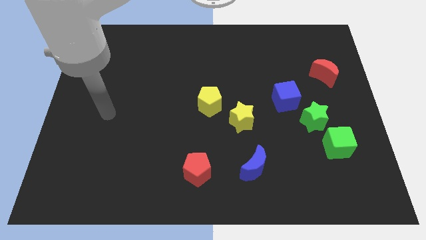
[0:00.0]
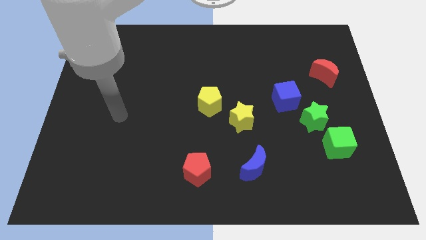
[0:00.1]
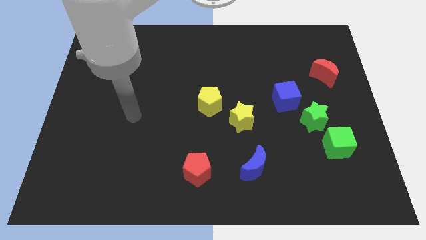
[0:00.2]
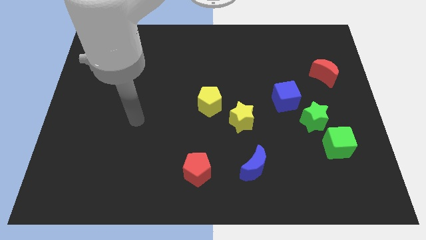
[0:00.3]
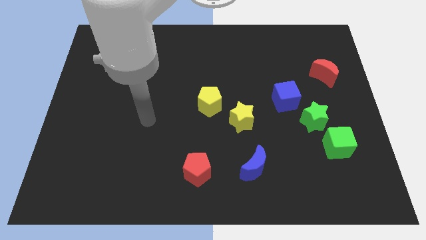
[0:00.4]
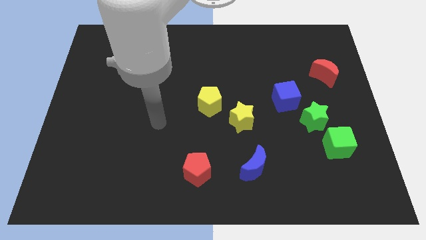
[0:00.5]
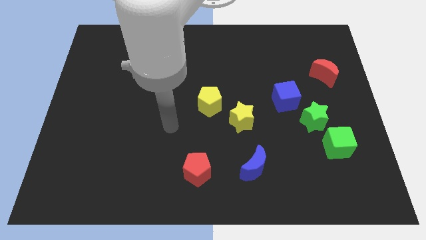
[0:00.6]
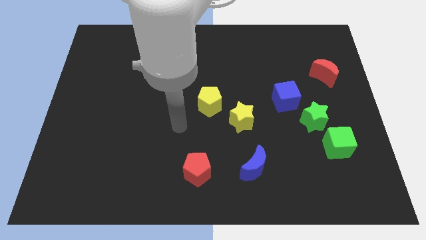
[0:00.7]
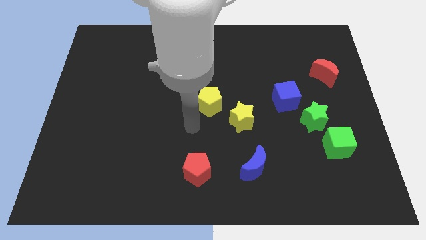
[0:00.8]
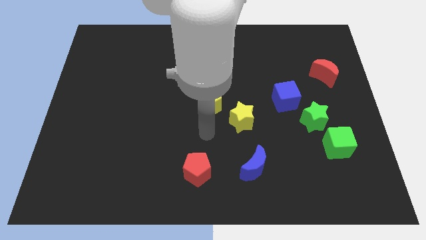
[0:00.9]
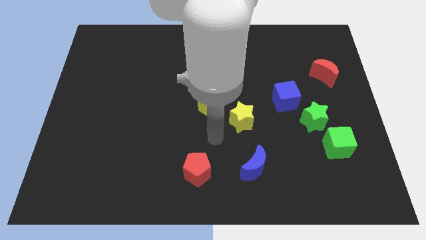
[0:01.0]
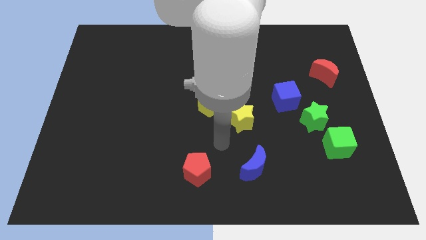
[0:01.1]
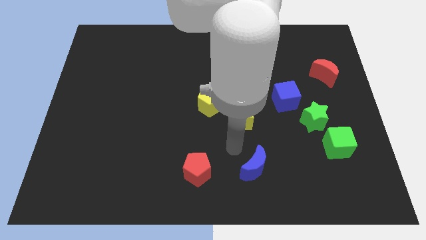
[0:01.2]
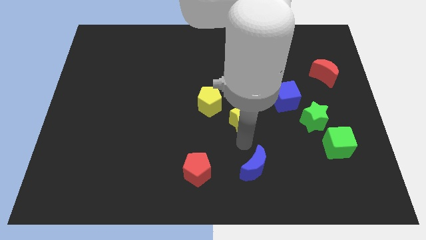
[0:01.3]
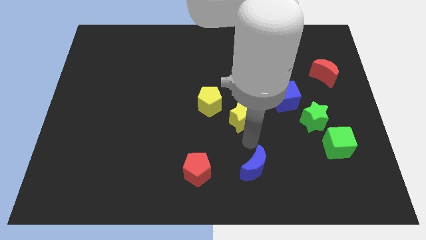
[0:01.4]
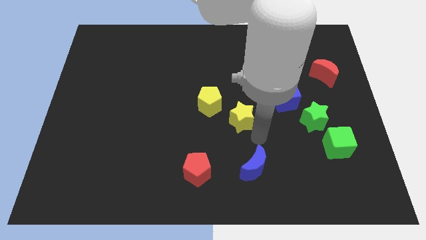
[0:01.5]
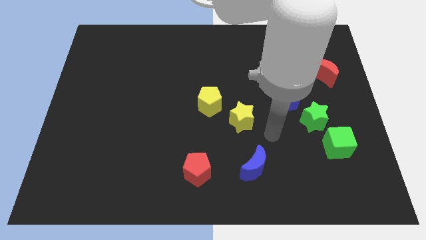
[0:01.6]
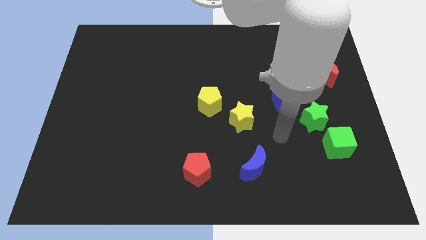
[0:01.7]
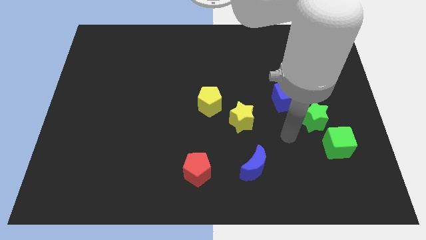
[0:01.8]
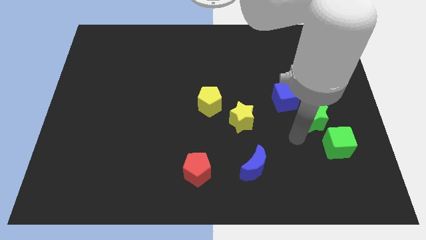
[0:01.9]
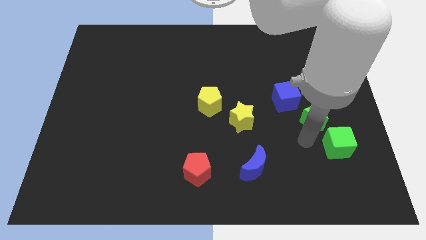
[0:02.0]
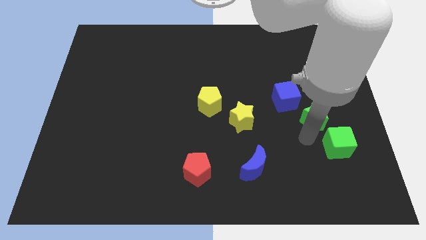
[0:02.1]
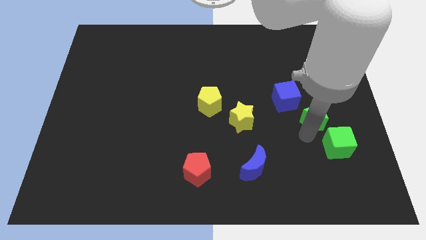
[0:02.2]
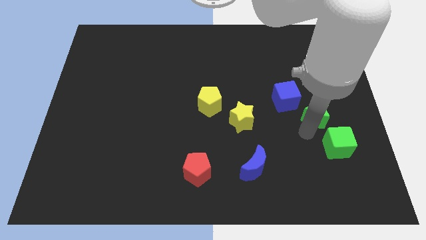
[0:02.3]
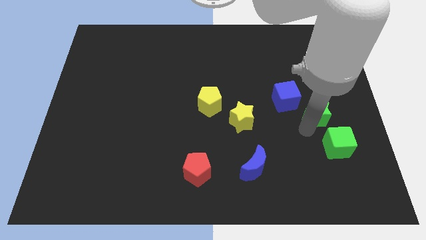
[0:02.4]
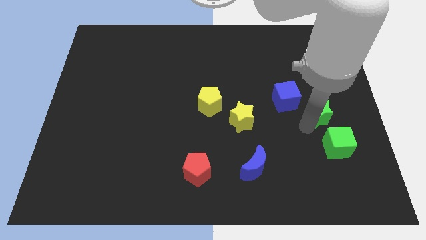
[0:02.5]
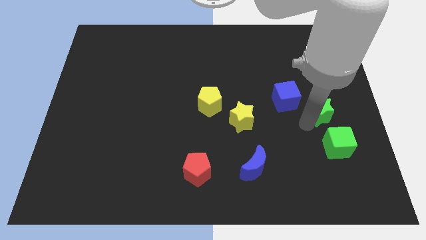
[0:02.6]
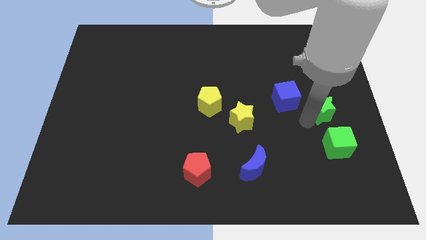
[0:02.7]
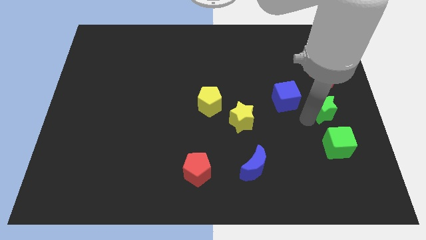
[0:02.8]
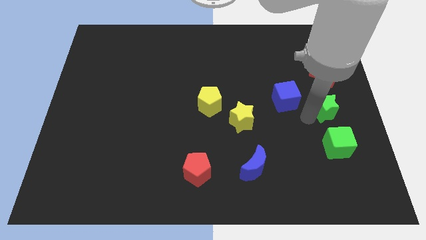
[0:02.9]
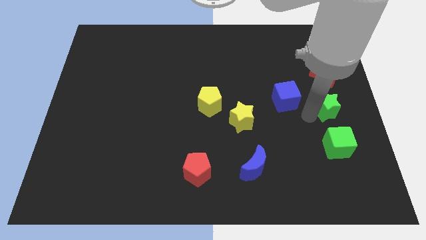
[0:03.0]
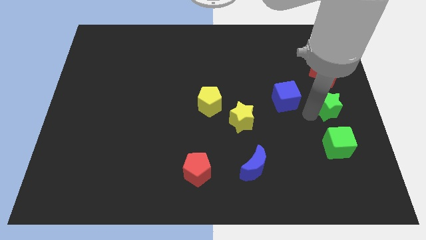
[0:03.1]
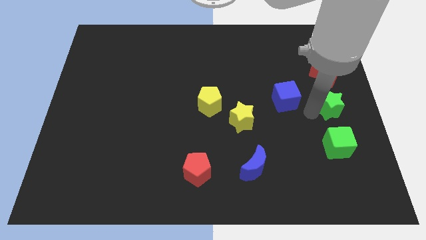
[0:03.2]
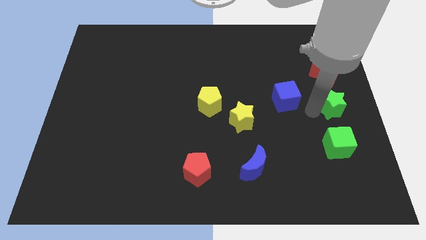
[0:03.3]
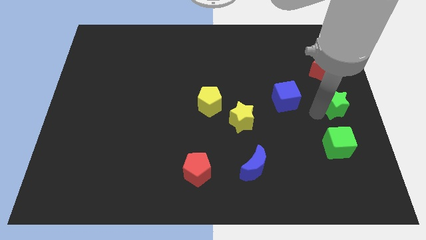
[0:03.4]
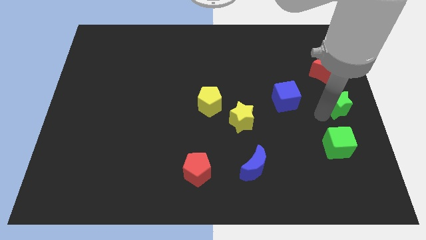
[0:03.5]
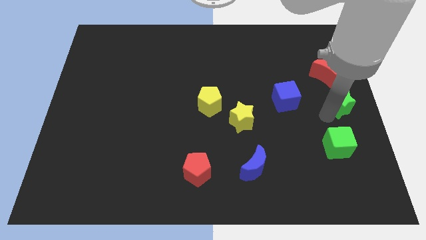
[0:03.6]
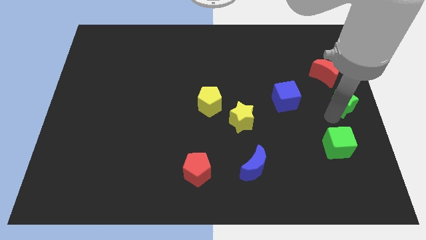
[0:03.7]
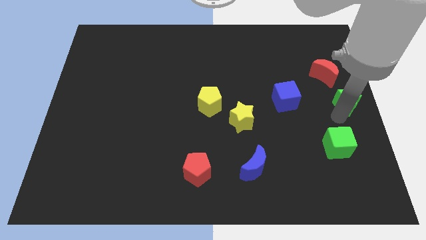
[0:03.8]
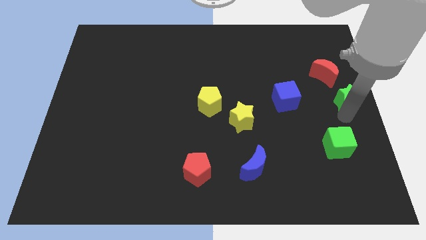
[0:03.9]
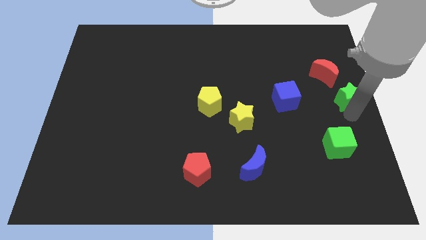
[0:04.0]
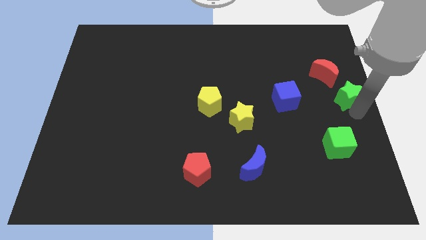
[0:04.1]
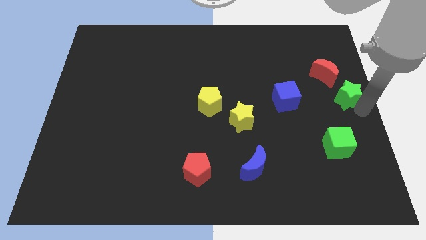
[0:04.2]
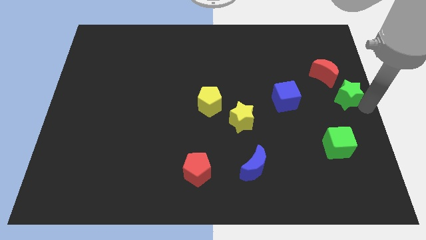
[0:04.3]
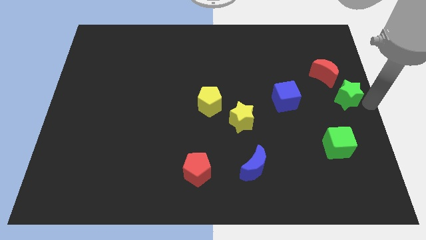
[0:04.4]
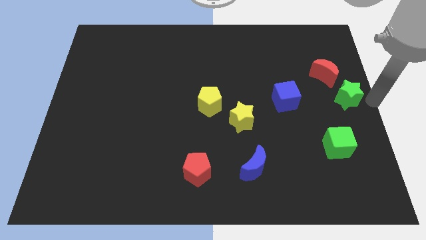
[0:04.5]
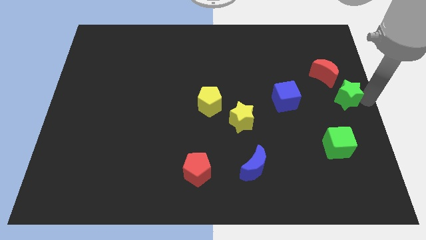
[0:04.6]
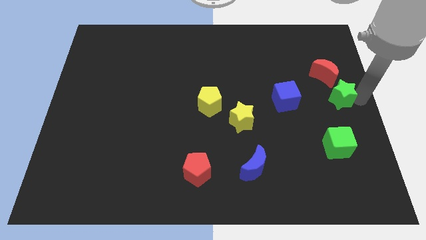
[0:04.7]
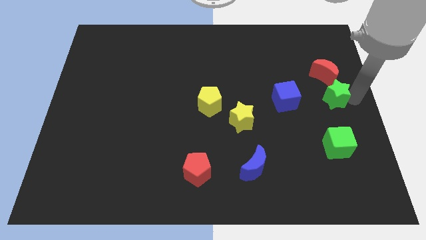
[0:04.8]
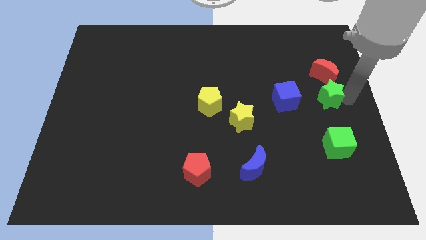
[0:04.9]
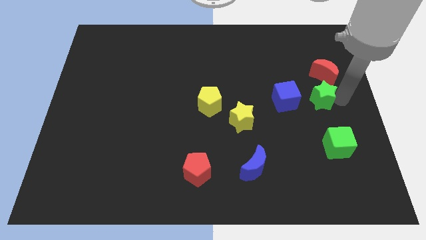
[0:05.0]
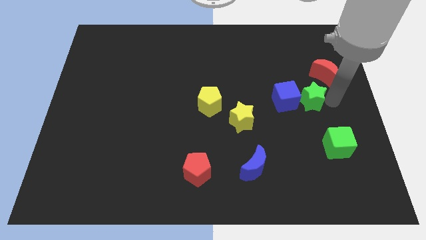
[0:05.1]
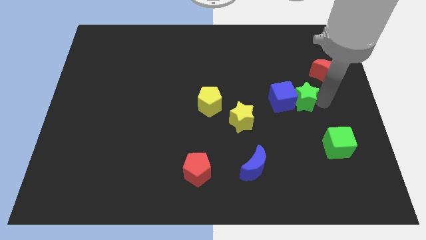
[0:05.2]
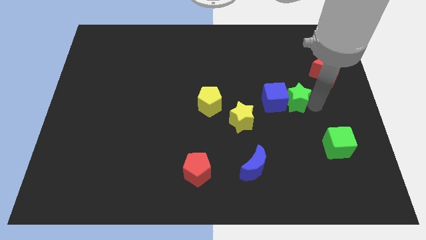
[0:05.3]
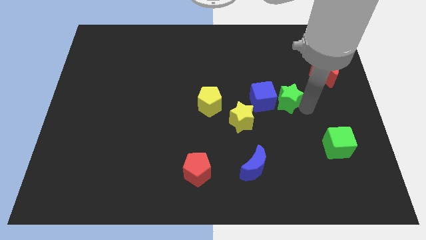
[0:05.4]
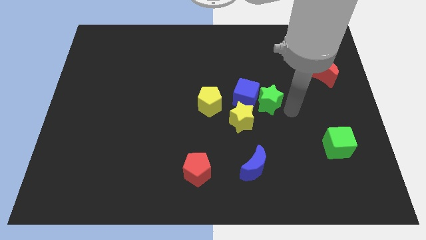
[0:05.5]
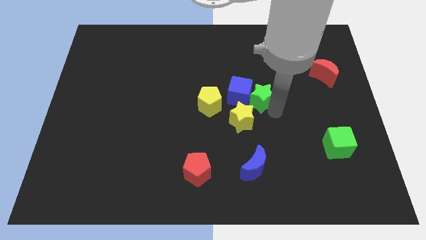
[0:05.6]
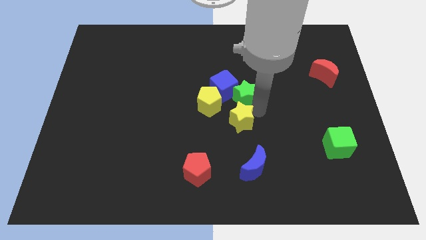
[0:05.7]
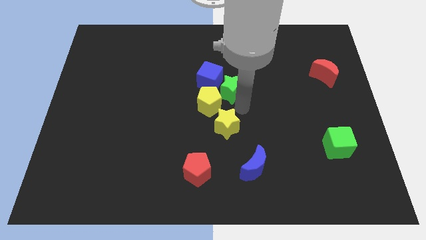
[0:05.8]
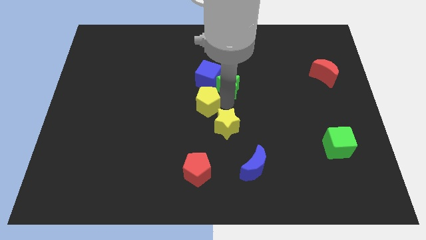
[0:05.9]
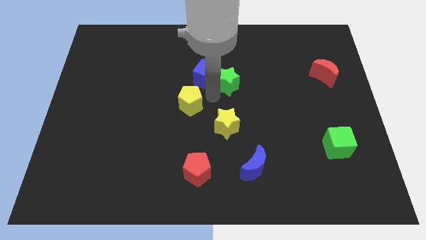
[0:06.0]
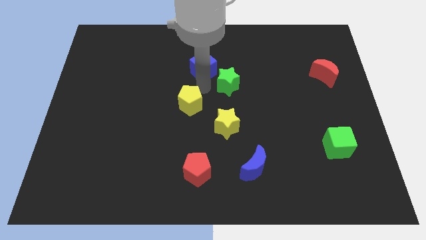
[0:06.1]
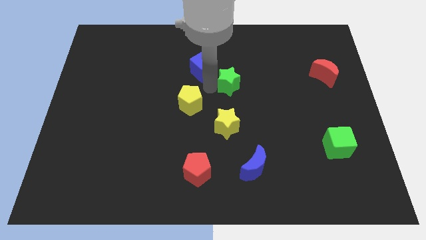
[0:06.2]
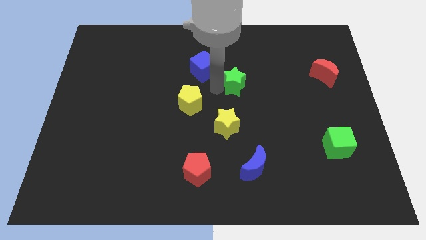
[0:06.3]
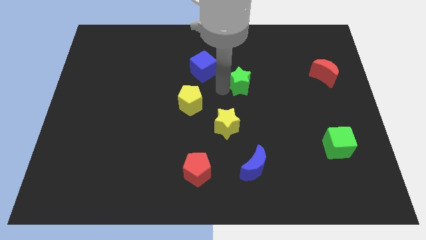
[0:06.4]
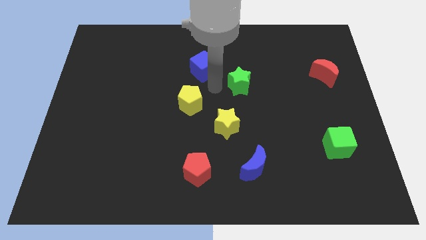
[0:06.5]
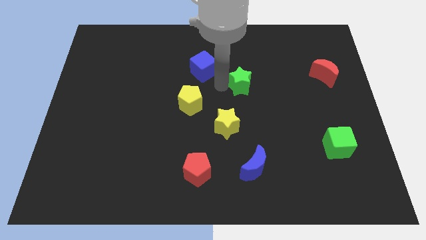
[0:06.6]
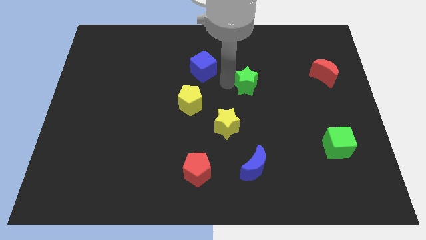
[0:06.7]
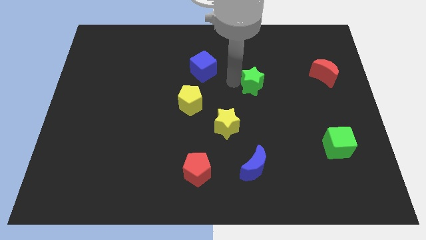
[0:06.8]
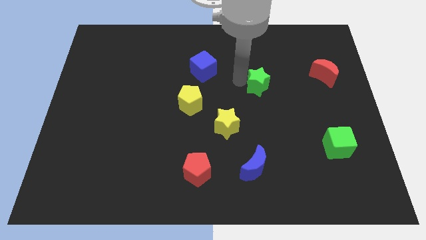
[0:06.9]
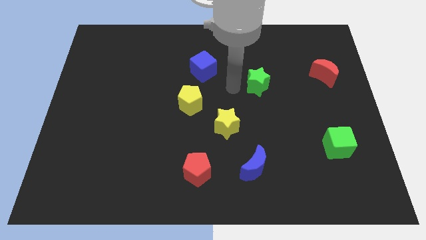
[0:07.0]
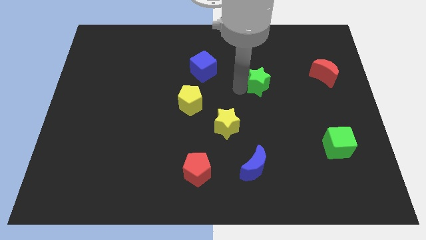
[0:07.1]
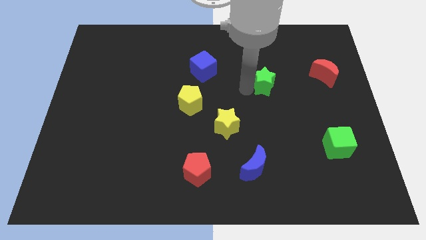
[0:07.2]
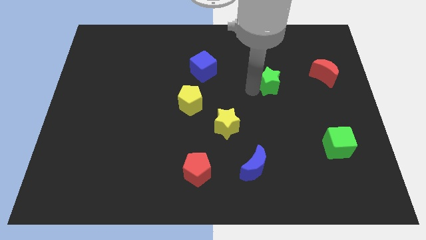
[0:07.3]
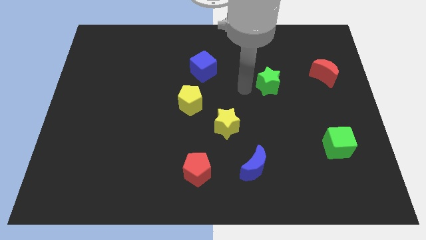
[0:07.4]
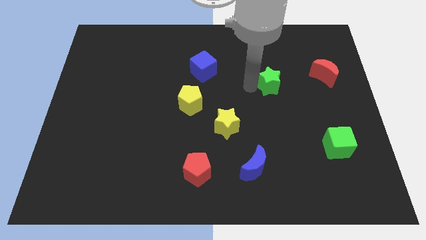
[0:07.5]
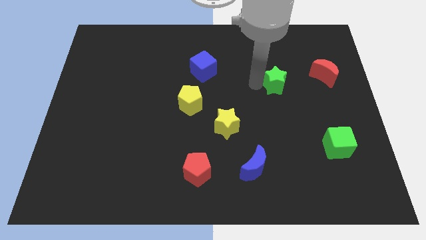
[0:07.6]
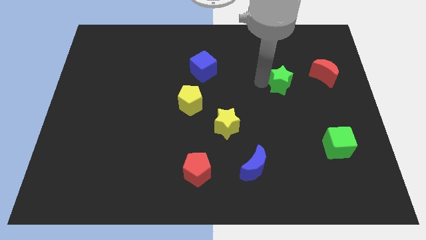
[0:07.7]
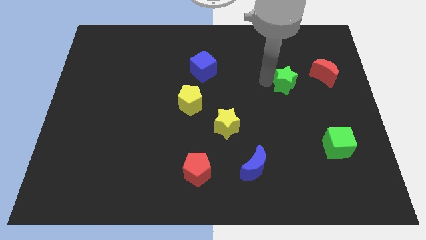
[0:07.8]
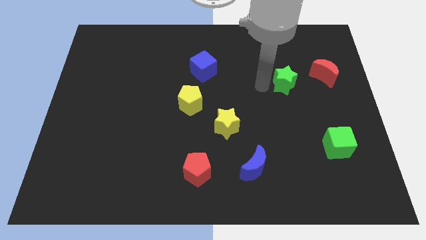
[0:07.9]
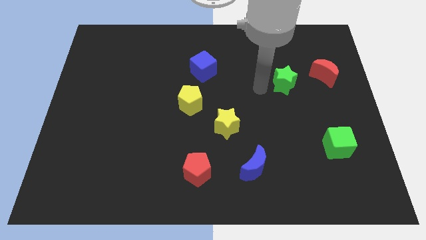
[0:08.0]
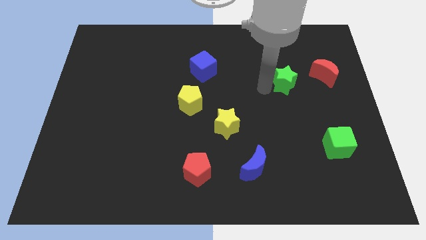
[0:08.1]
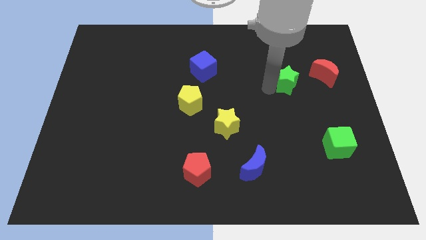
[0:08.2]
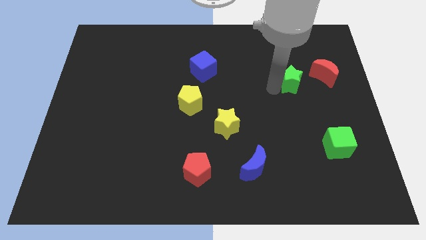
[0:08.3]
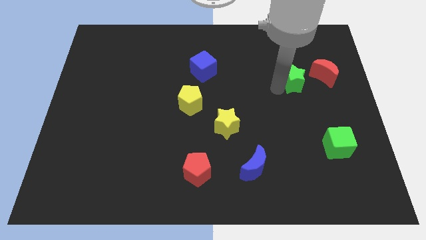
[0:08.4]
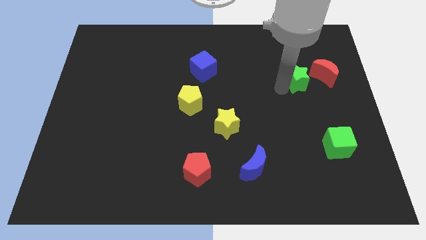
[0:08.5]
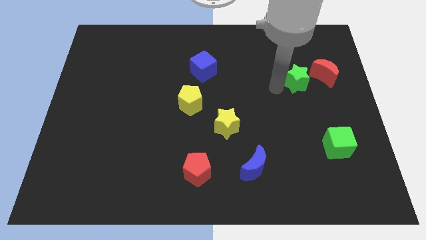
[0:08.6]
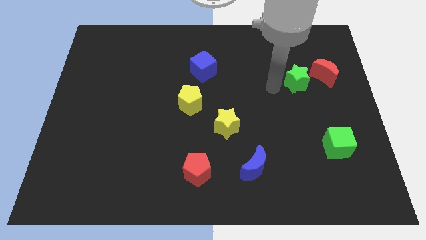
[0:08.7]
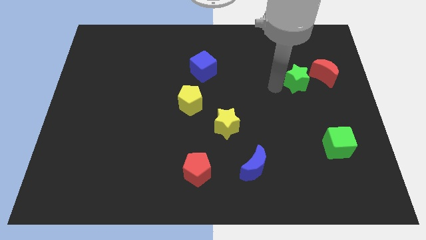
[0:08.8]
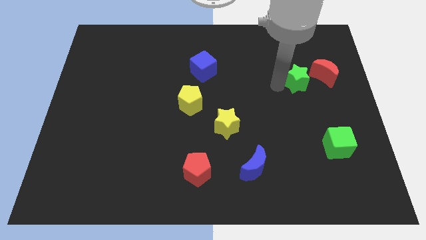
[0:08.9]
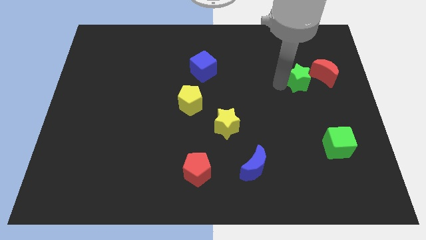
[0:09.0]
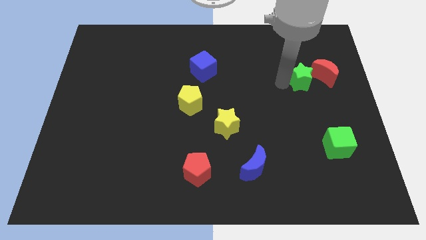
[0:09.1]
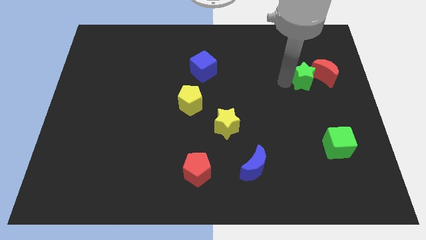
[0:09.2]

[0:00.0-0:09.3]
move the green star towards the red moon
